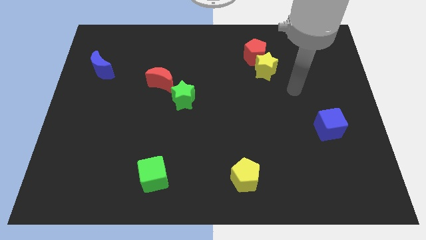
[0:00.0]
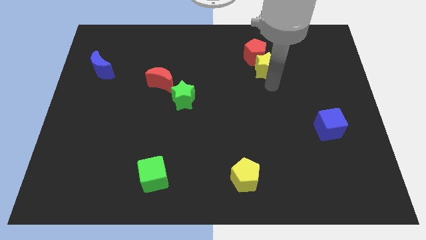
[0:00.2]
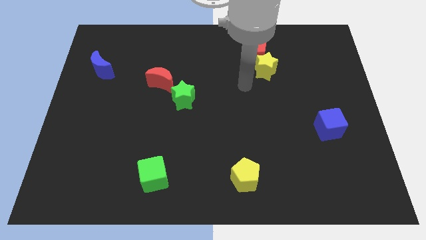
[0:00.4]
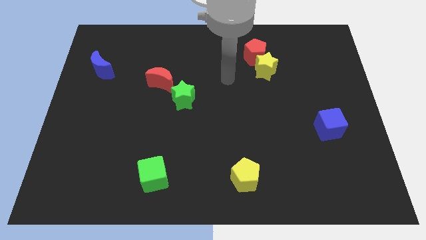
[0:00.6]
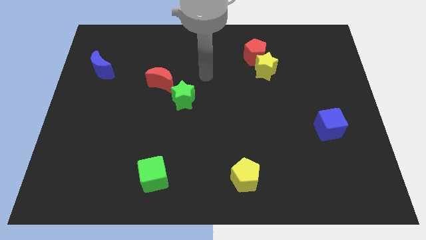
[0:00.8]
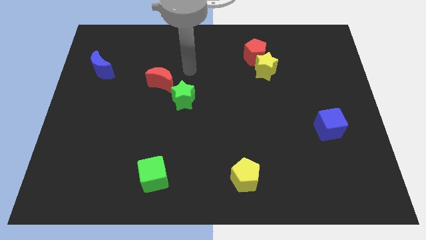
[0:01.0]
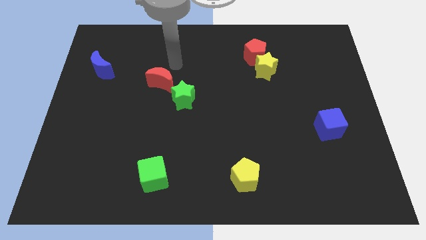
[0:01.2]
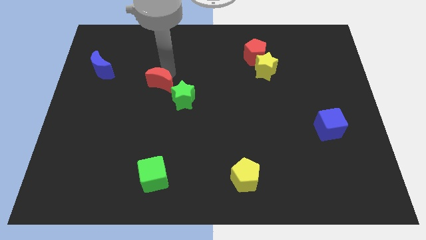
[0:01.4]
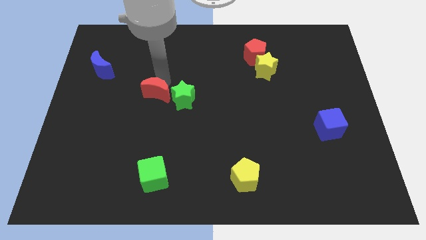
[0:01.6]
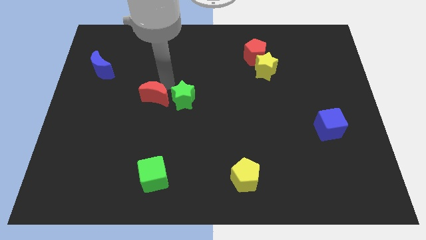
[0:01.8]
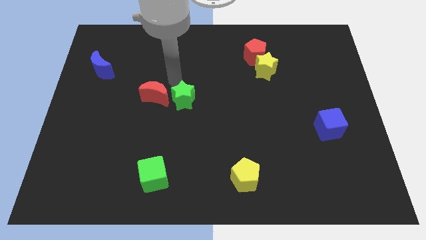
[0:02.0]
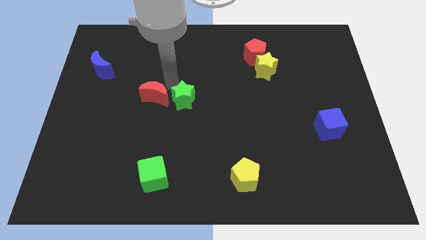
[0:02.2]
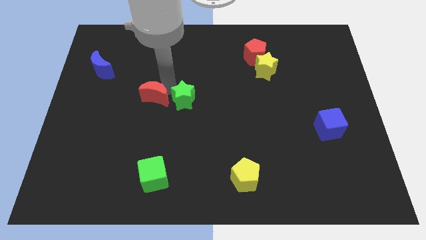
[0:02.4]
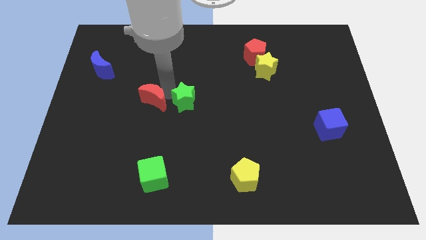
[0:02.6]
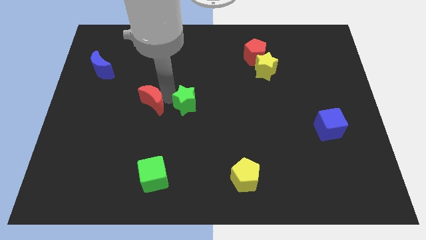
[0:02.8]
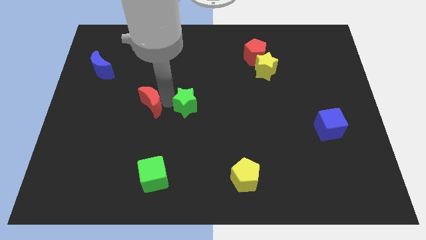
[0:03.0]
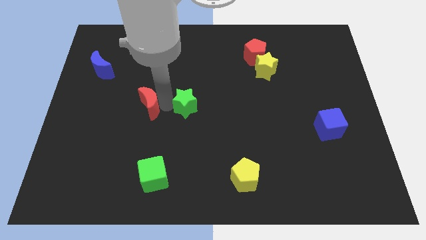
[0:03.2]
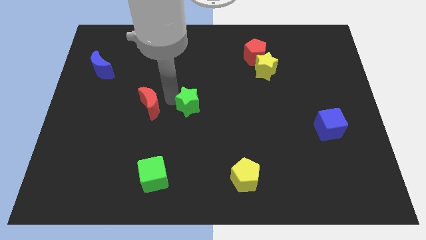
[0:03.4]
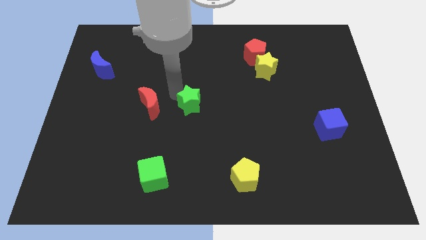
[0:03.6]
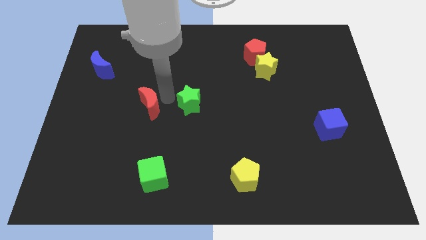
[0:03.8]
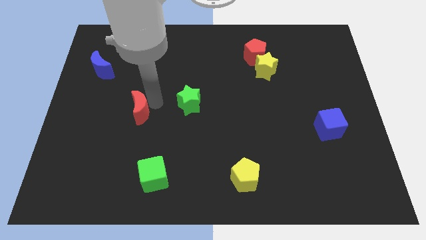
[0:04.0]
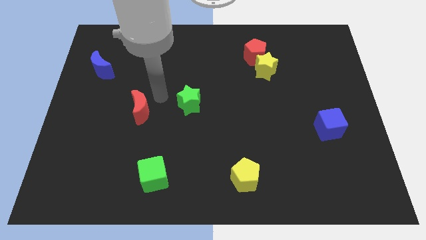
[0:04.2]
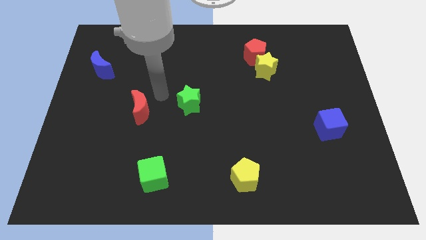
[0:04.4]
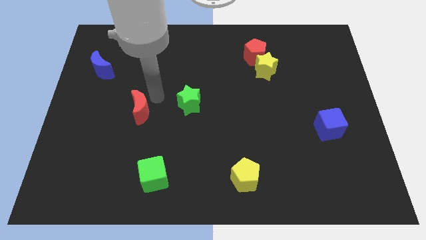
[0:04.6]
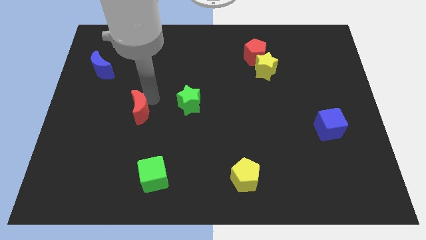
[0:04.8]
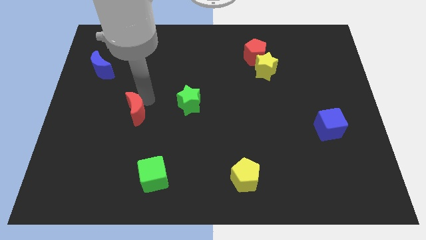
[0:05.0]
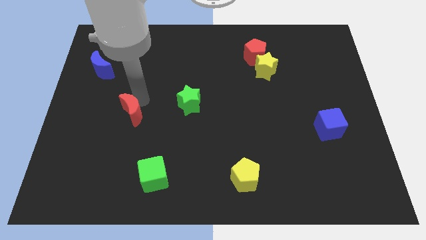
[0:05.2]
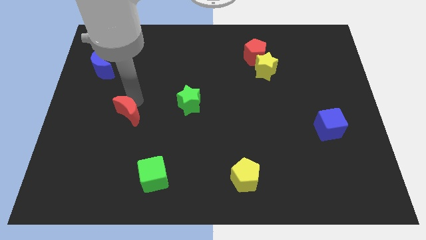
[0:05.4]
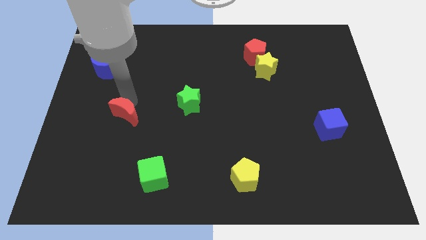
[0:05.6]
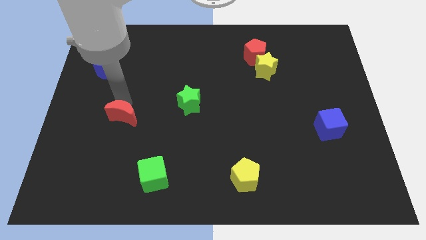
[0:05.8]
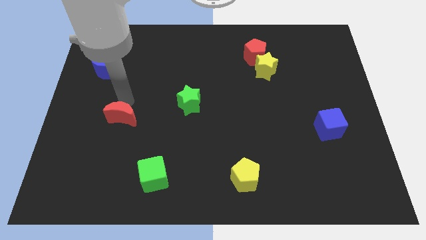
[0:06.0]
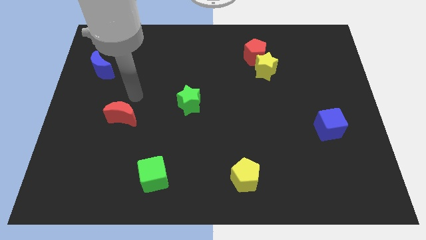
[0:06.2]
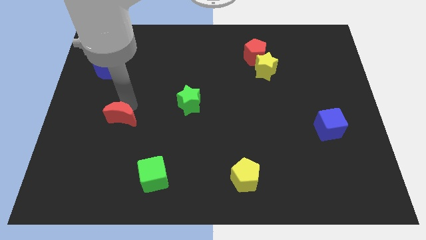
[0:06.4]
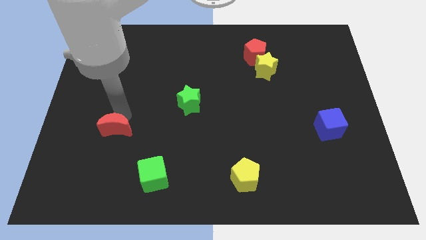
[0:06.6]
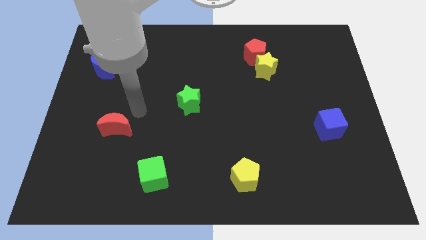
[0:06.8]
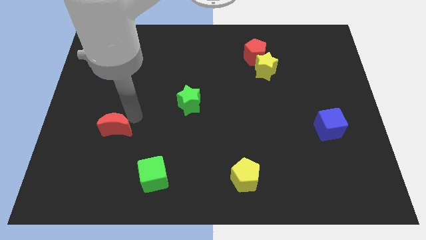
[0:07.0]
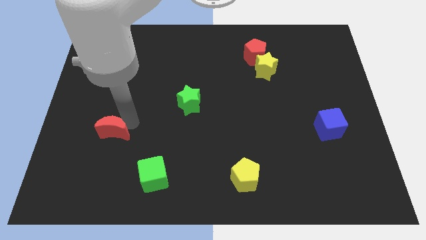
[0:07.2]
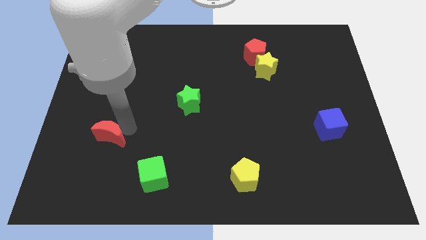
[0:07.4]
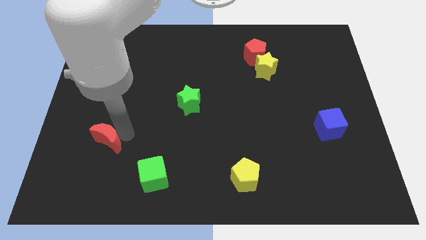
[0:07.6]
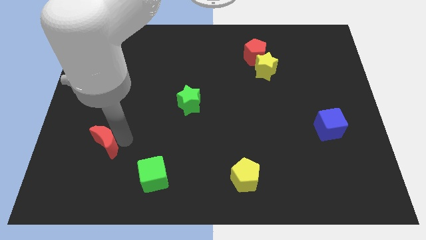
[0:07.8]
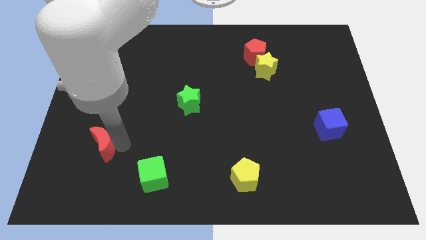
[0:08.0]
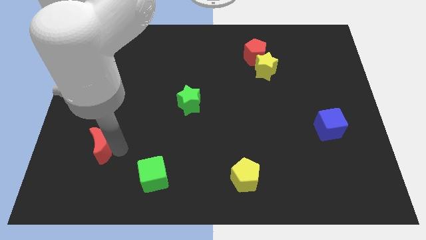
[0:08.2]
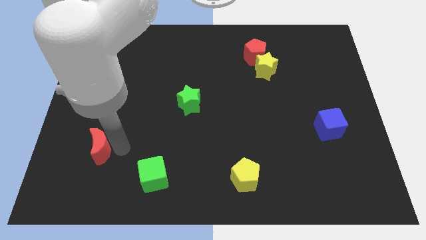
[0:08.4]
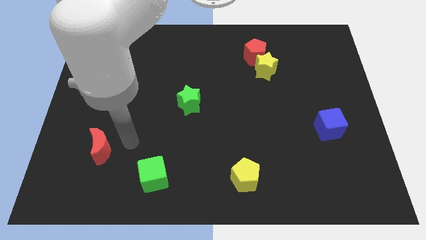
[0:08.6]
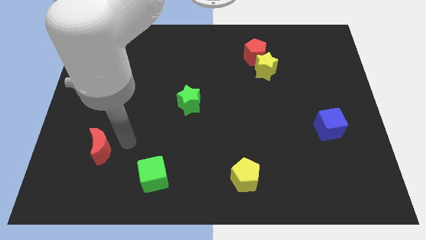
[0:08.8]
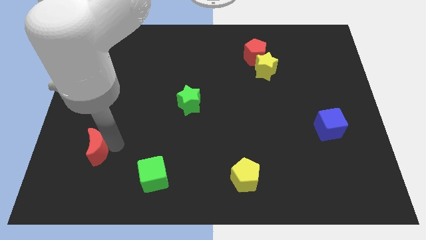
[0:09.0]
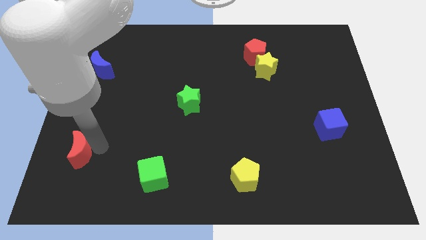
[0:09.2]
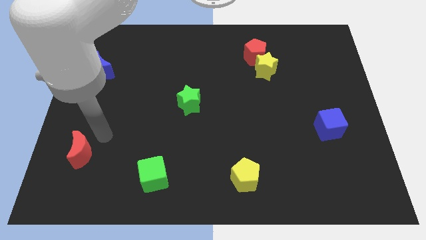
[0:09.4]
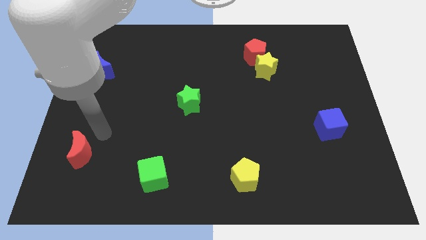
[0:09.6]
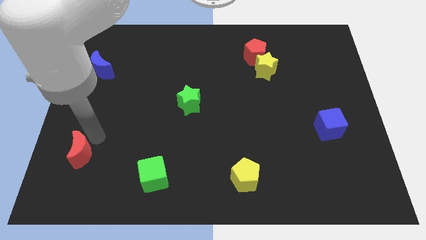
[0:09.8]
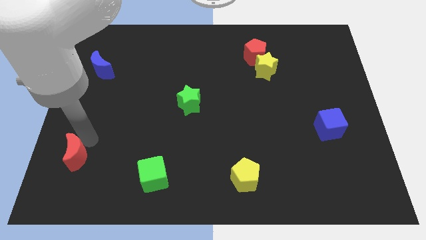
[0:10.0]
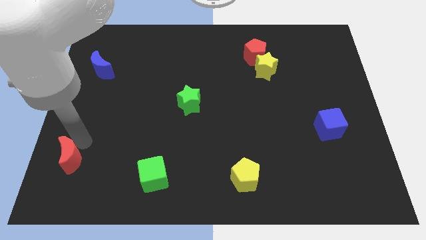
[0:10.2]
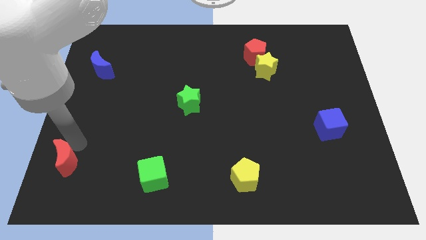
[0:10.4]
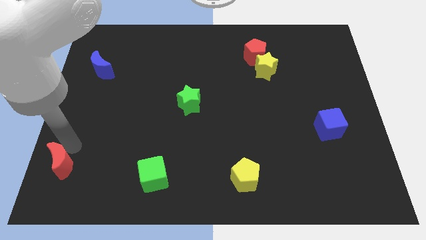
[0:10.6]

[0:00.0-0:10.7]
slide the red moon to the bottom left of the board
